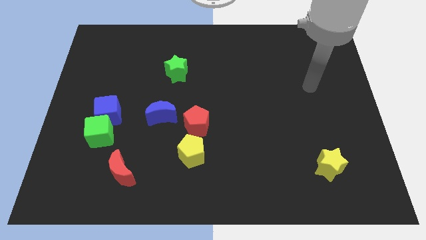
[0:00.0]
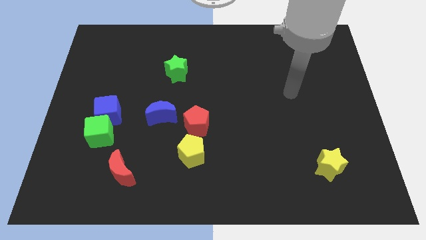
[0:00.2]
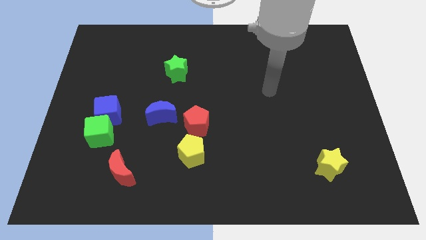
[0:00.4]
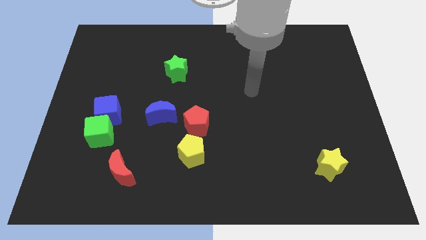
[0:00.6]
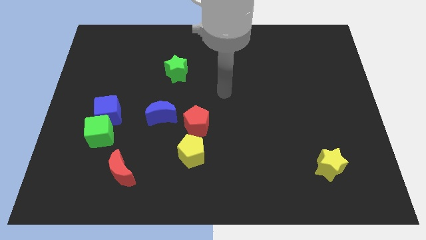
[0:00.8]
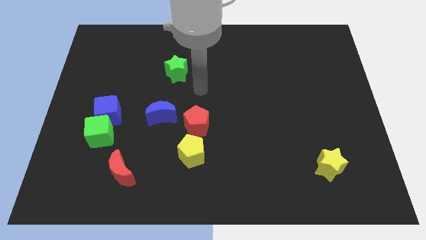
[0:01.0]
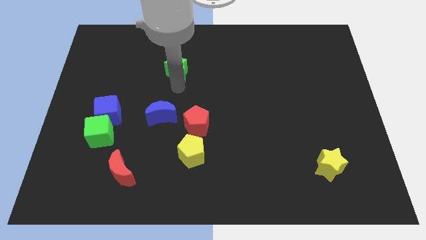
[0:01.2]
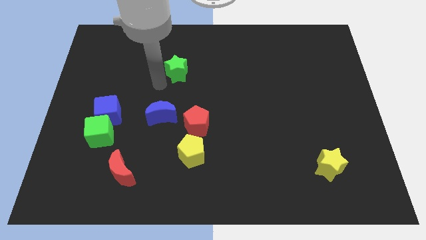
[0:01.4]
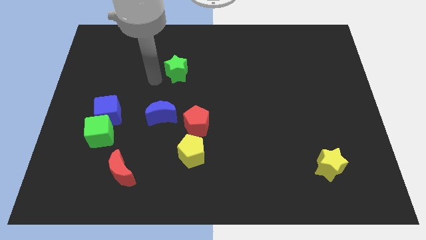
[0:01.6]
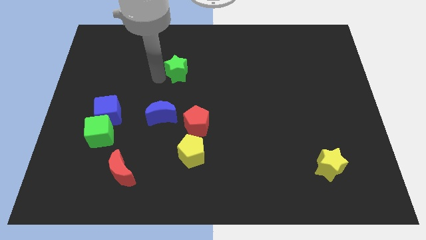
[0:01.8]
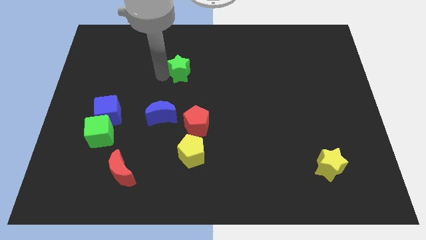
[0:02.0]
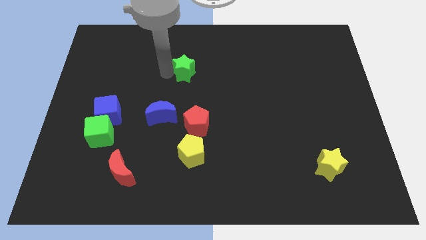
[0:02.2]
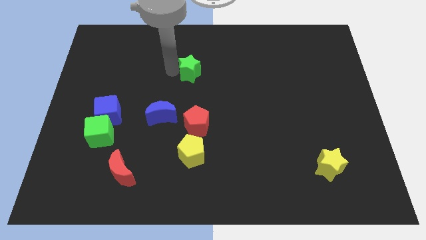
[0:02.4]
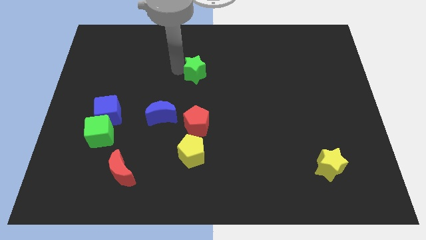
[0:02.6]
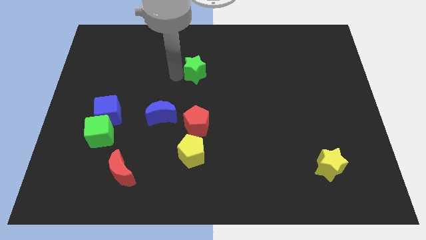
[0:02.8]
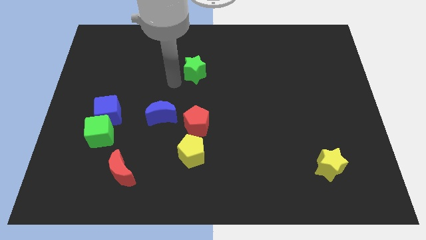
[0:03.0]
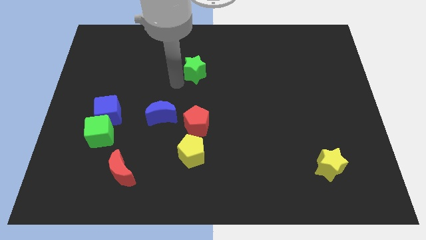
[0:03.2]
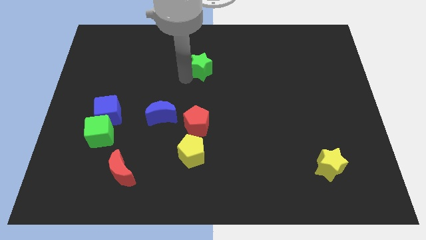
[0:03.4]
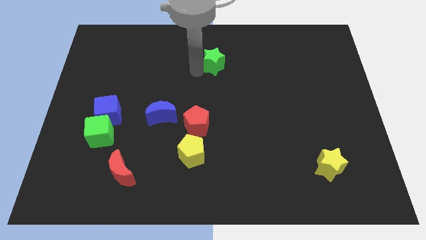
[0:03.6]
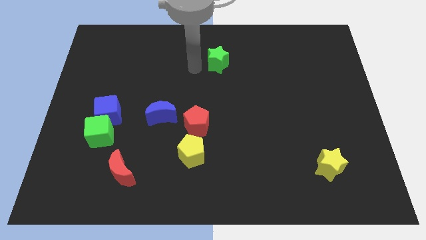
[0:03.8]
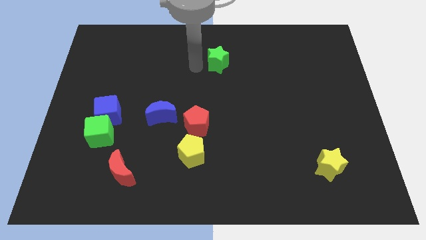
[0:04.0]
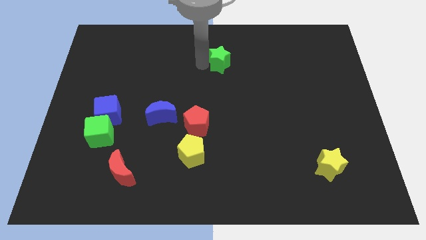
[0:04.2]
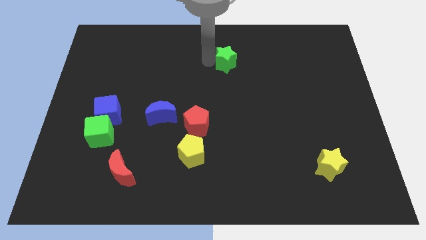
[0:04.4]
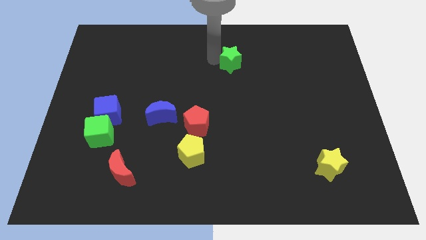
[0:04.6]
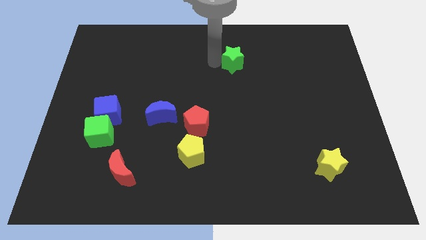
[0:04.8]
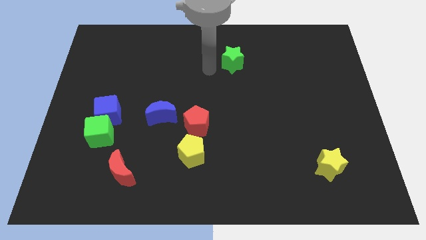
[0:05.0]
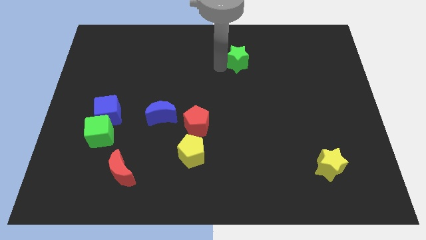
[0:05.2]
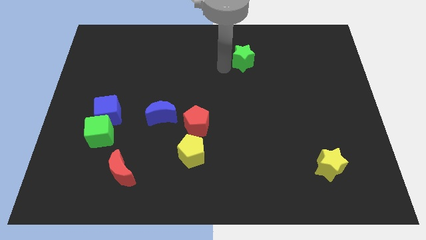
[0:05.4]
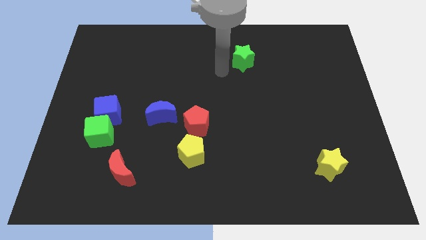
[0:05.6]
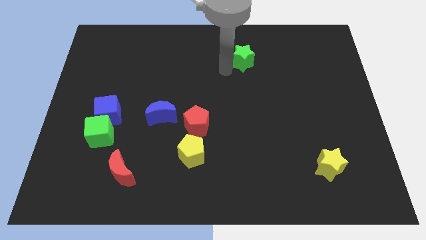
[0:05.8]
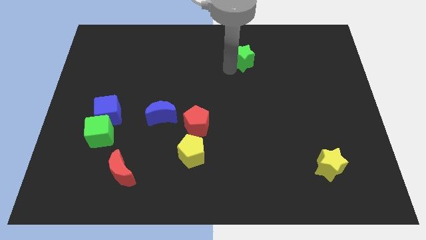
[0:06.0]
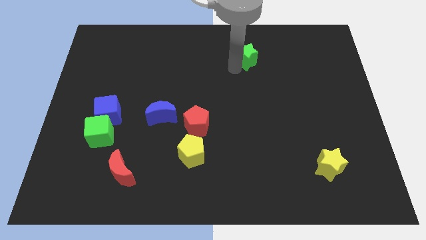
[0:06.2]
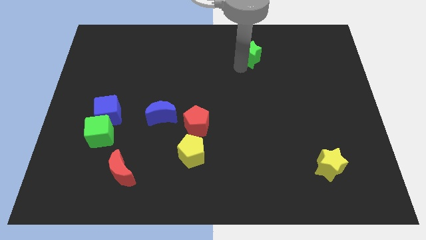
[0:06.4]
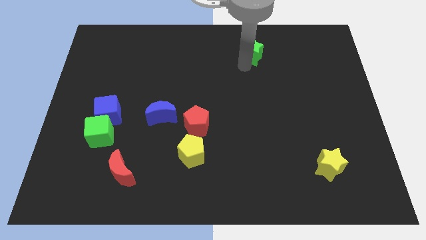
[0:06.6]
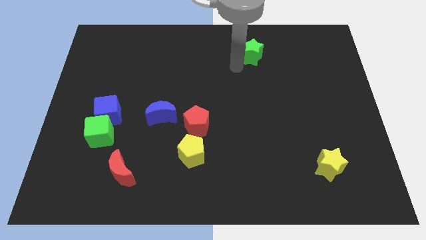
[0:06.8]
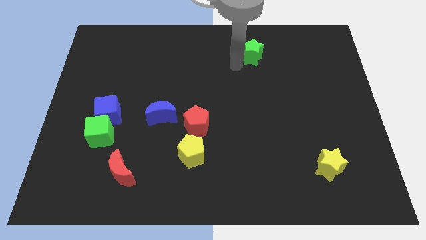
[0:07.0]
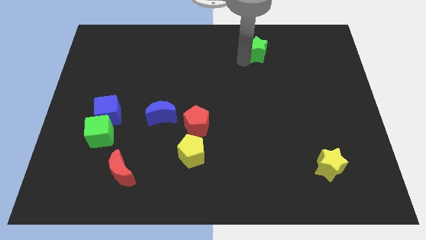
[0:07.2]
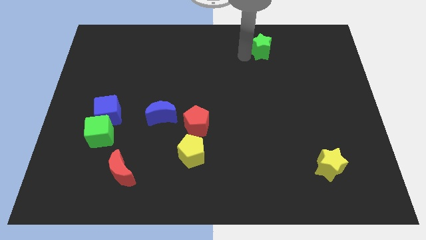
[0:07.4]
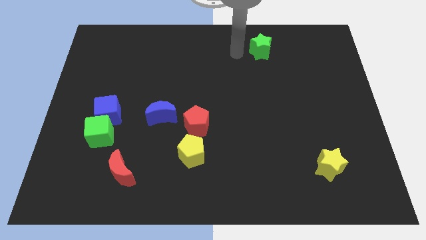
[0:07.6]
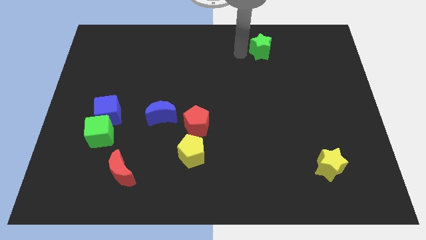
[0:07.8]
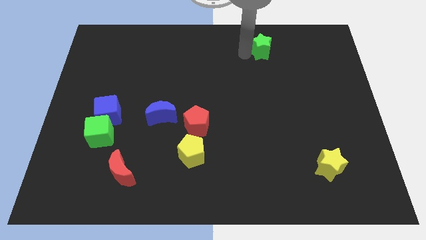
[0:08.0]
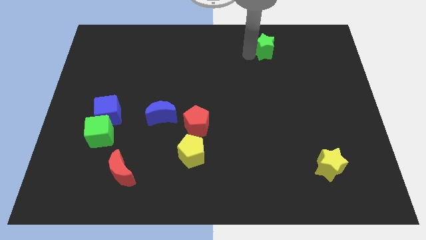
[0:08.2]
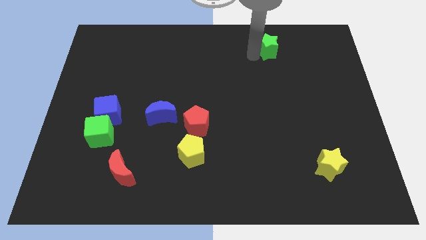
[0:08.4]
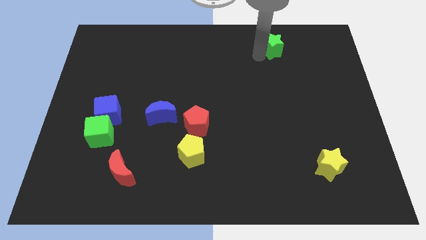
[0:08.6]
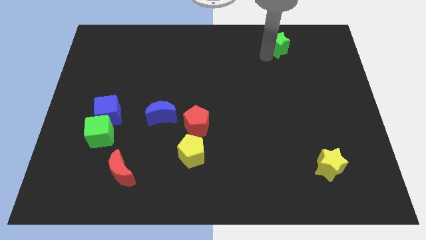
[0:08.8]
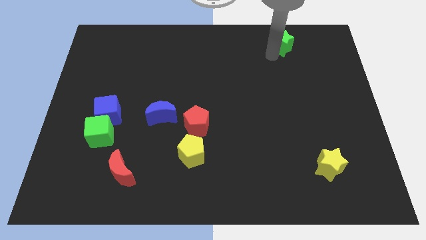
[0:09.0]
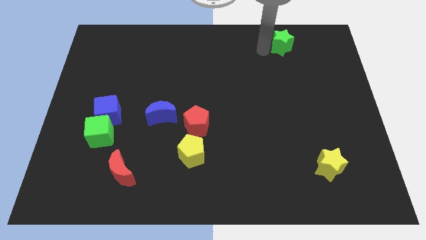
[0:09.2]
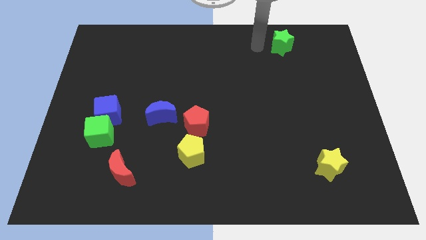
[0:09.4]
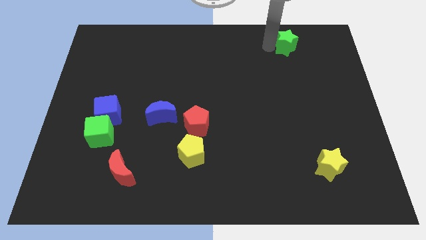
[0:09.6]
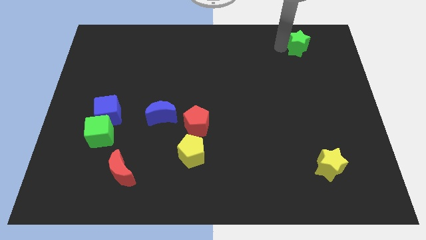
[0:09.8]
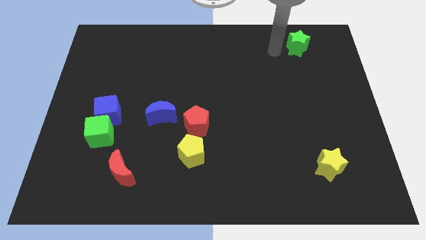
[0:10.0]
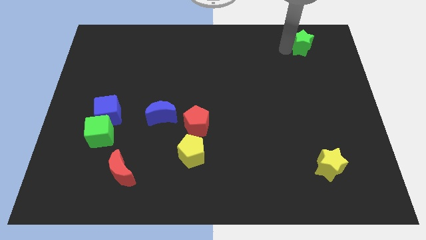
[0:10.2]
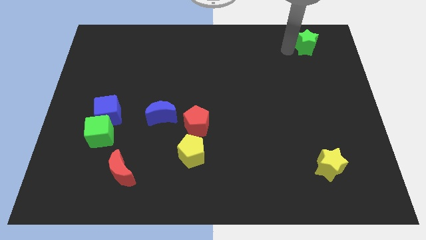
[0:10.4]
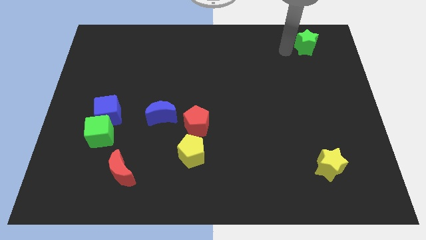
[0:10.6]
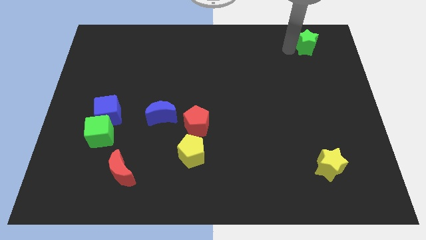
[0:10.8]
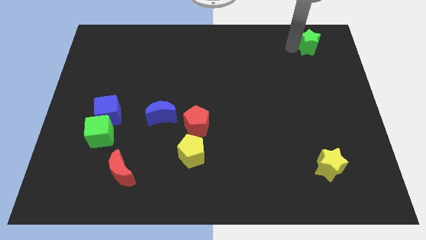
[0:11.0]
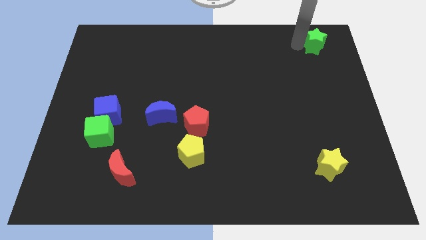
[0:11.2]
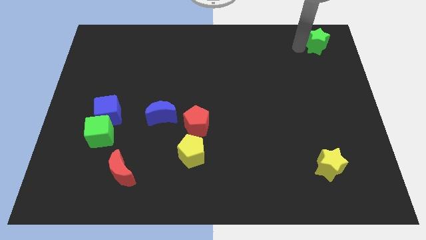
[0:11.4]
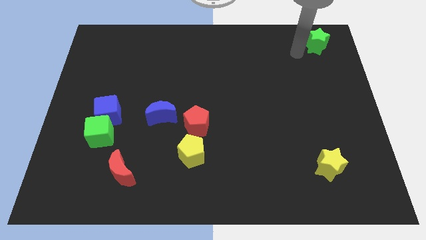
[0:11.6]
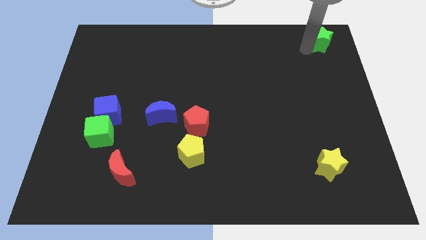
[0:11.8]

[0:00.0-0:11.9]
push the green star to the top right

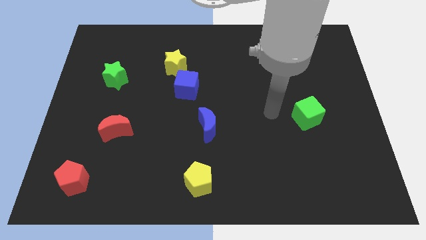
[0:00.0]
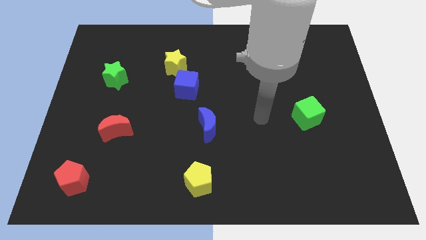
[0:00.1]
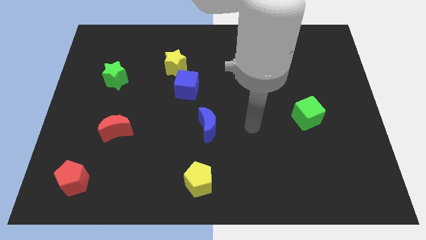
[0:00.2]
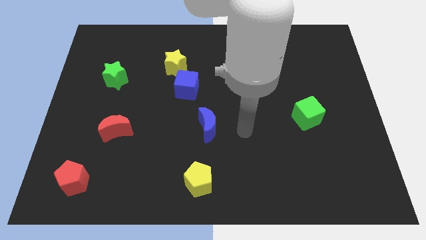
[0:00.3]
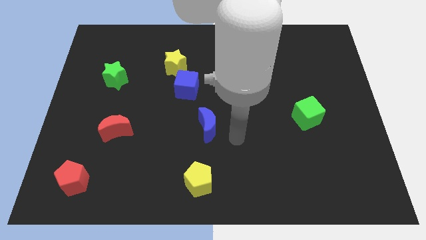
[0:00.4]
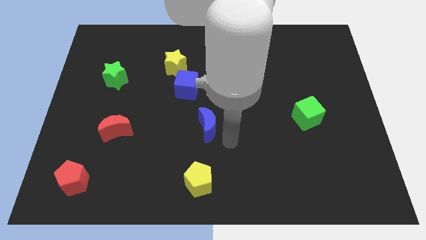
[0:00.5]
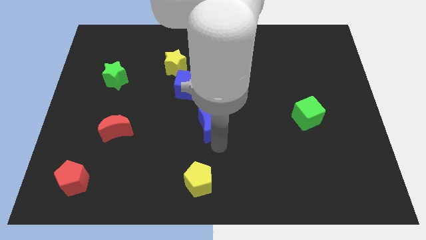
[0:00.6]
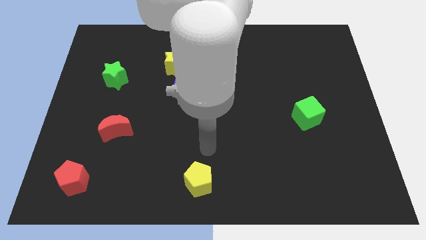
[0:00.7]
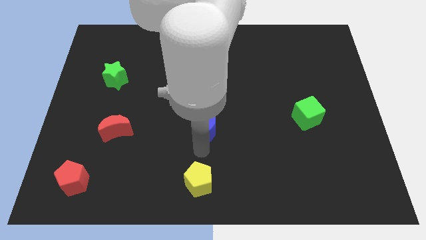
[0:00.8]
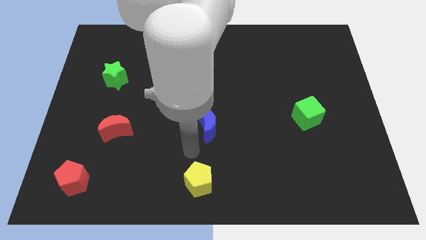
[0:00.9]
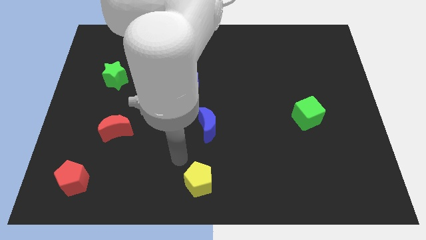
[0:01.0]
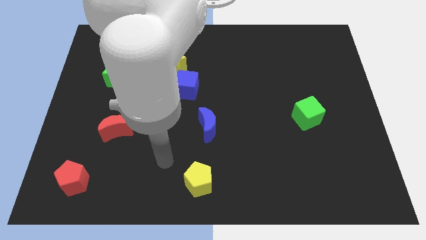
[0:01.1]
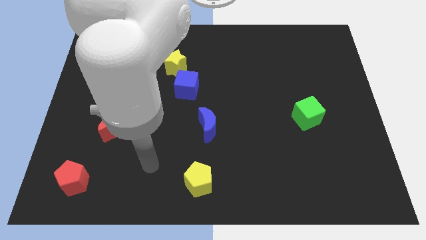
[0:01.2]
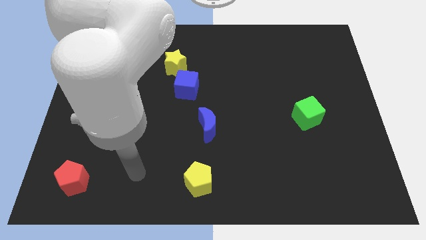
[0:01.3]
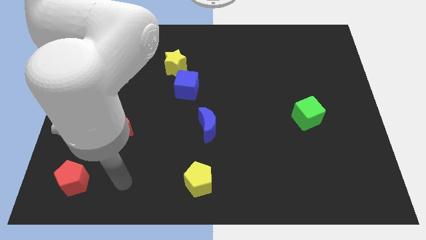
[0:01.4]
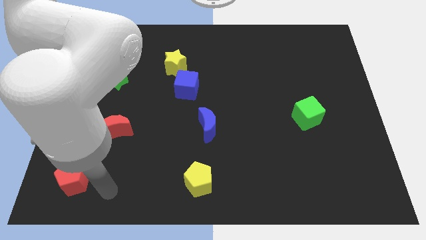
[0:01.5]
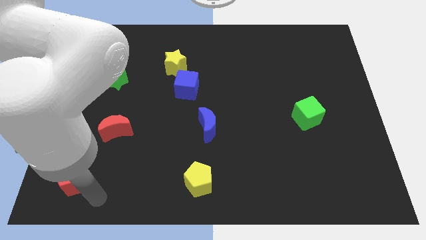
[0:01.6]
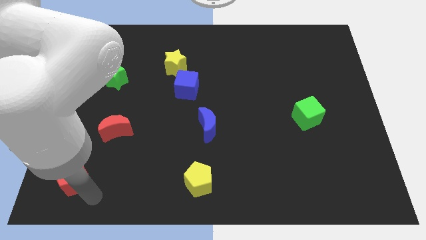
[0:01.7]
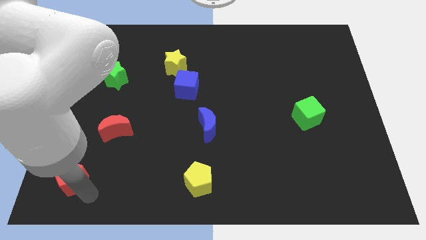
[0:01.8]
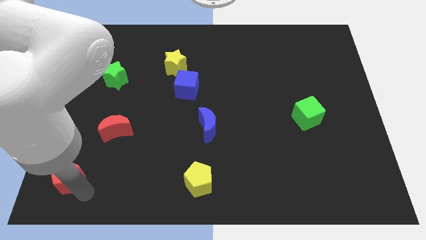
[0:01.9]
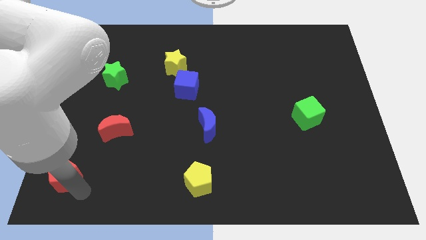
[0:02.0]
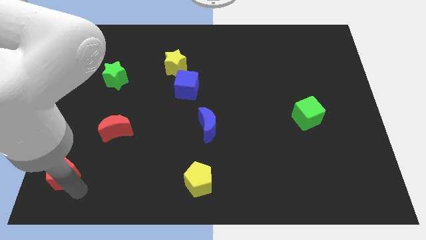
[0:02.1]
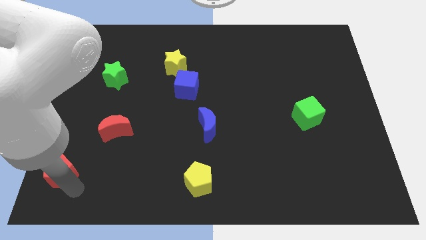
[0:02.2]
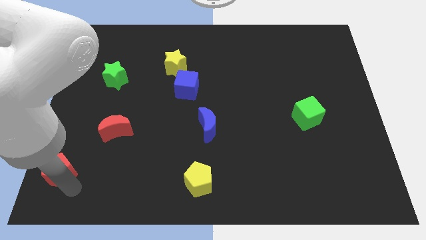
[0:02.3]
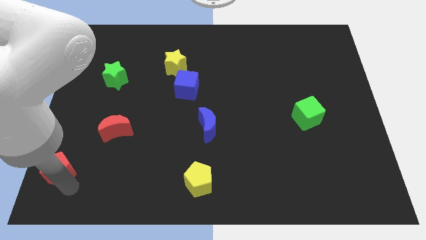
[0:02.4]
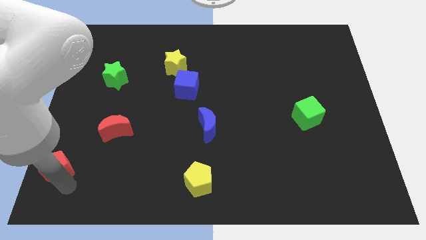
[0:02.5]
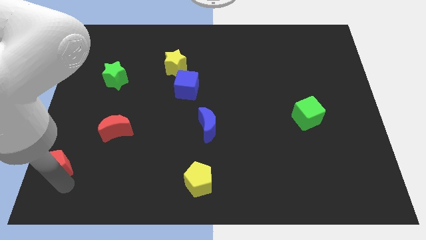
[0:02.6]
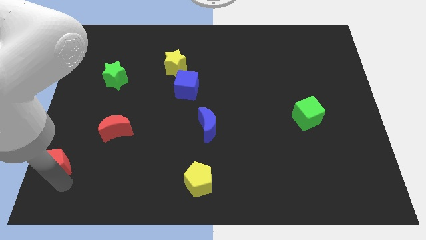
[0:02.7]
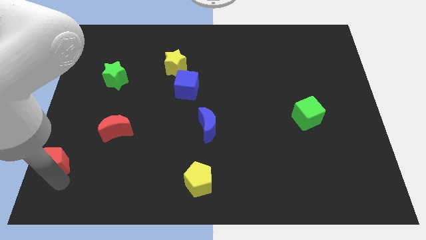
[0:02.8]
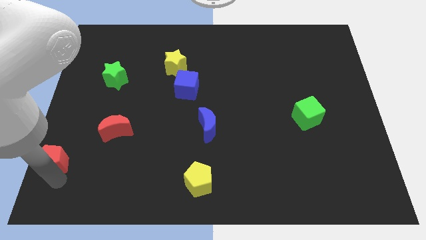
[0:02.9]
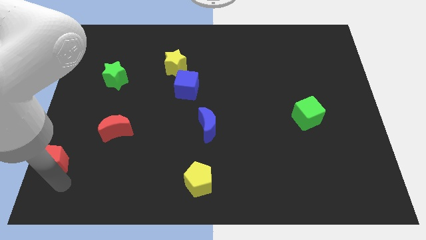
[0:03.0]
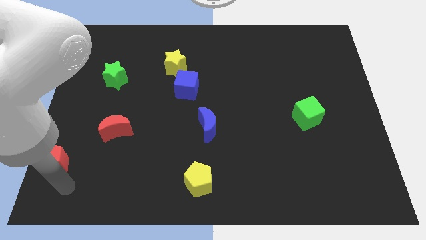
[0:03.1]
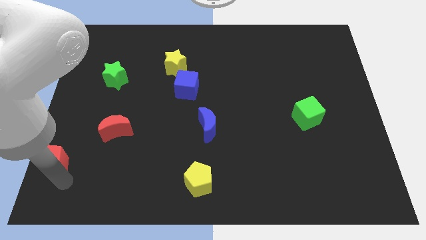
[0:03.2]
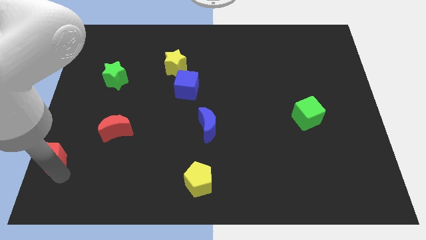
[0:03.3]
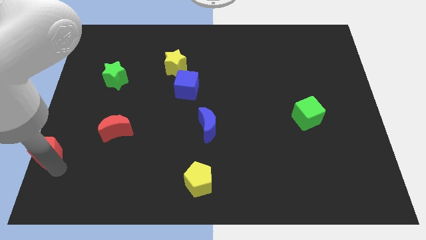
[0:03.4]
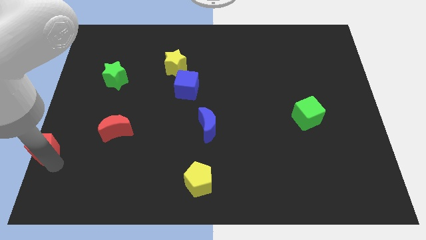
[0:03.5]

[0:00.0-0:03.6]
push the red pentagon to the left side
